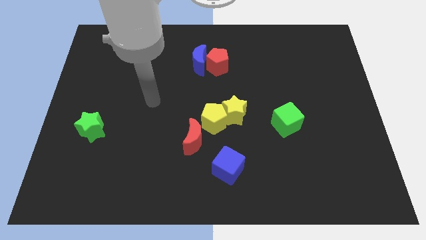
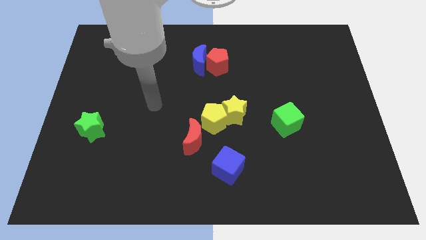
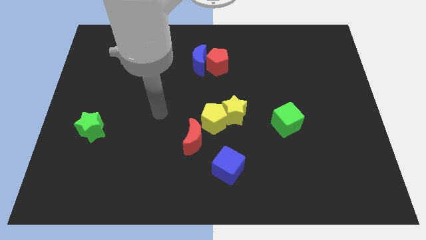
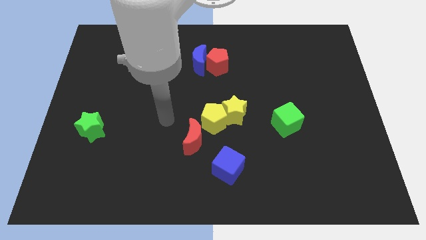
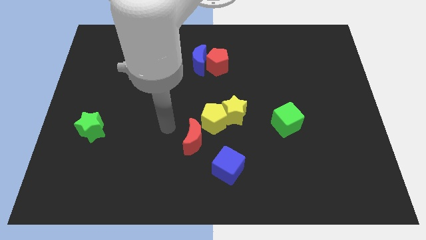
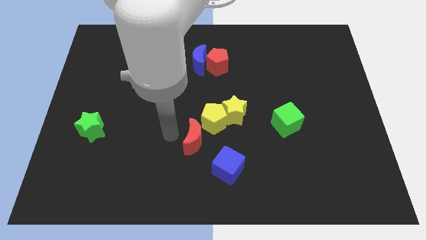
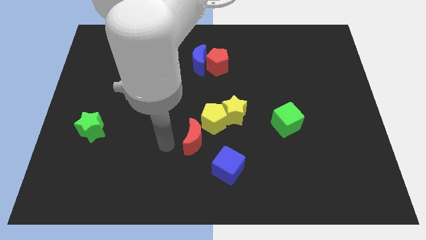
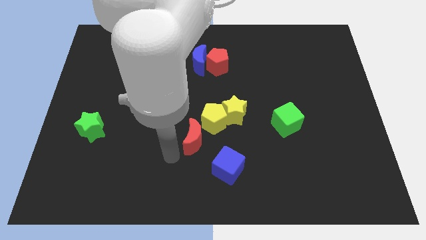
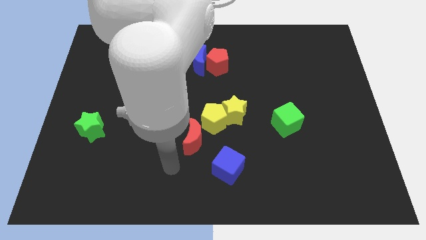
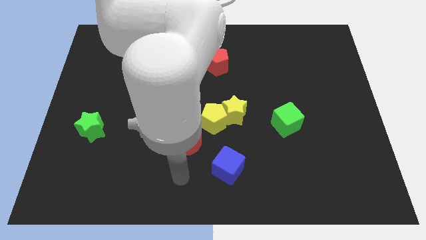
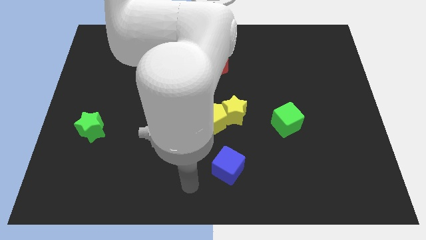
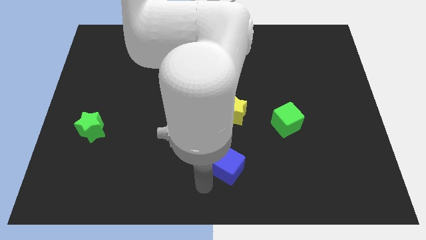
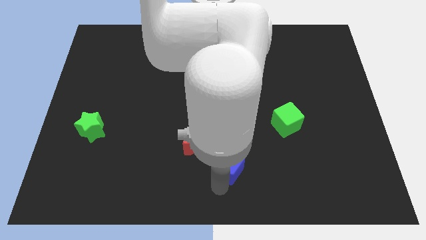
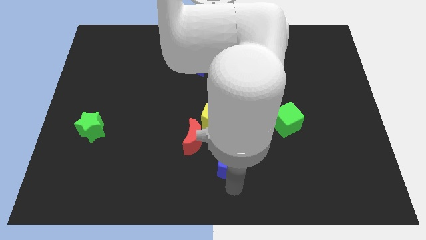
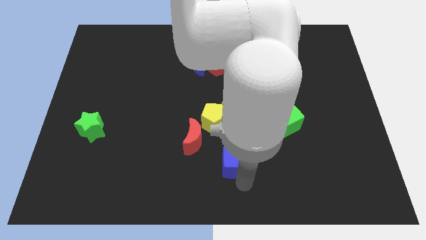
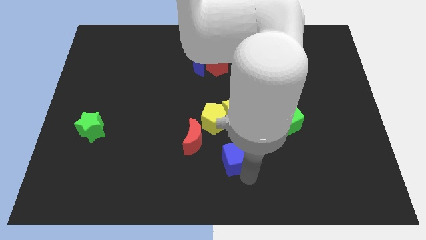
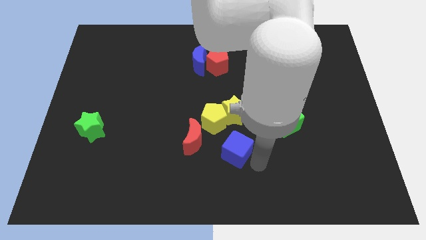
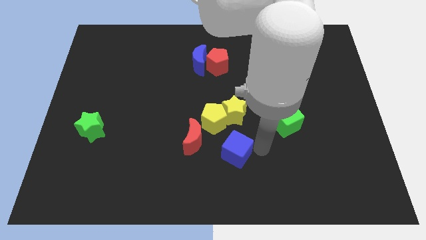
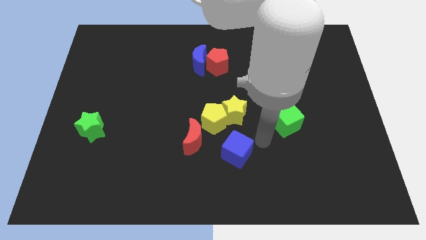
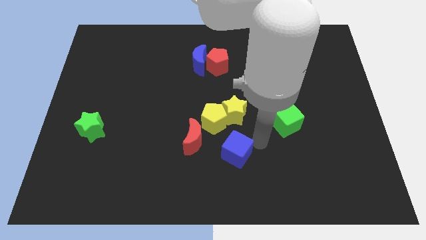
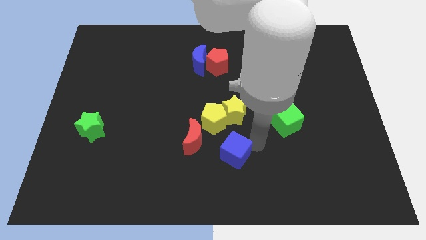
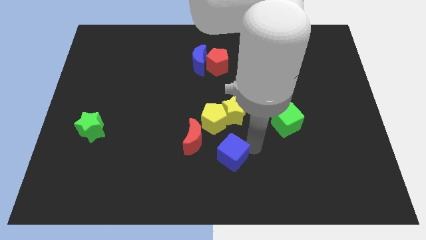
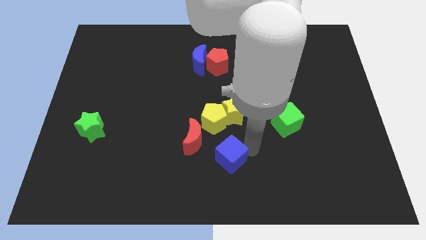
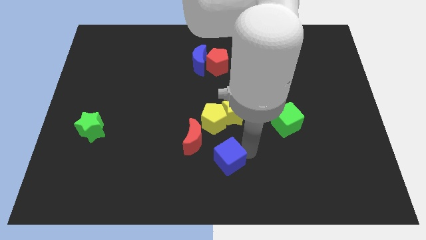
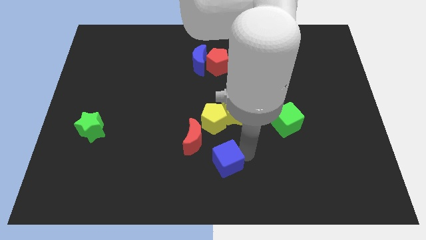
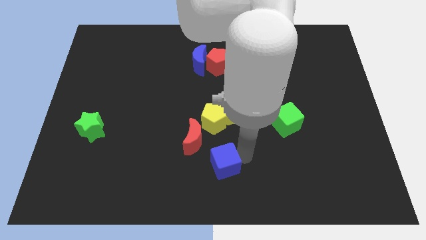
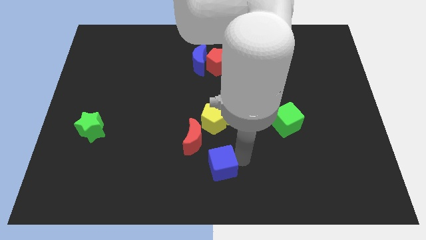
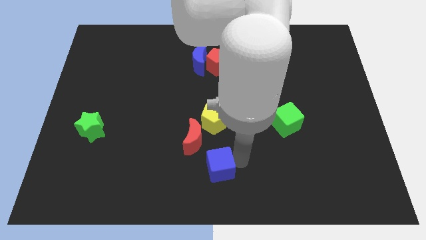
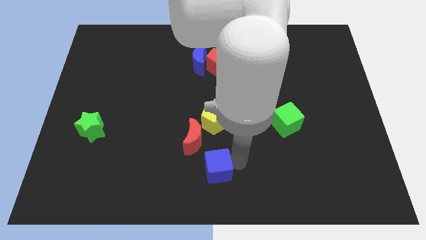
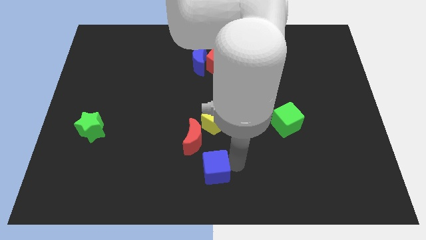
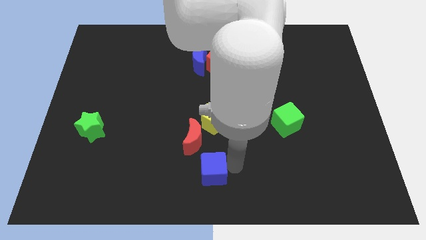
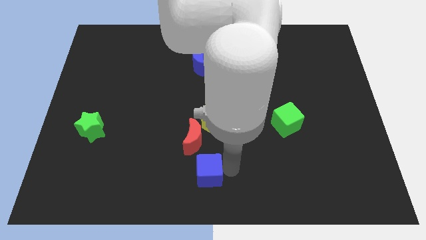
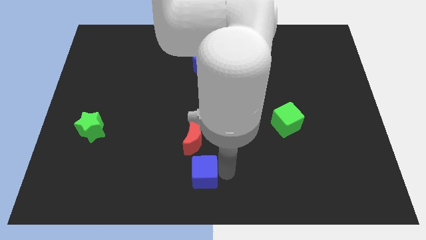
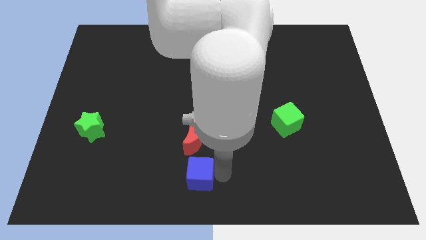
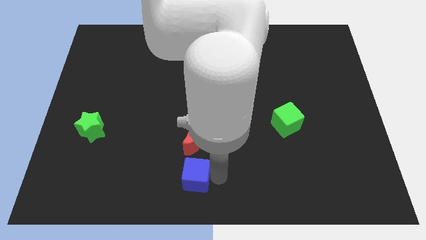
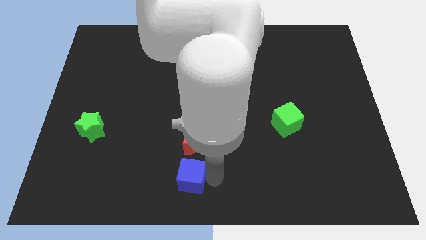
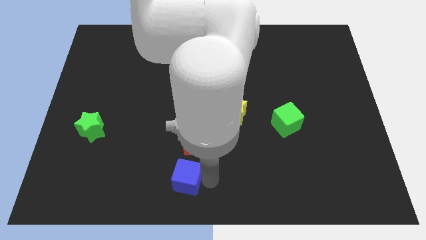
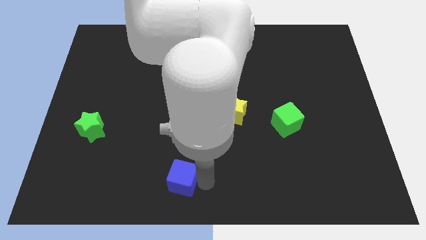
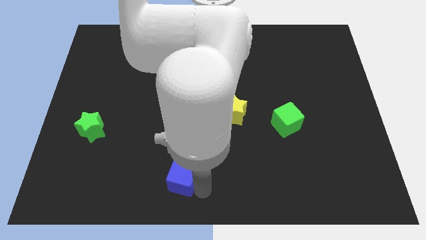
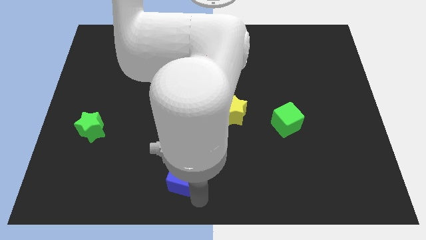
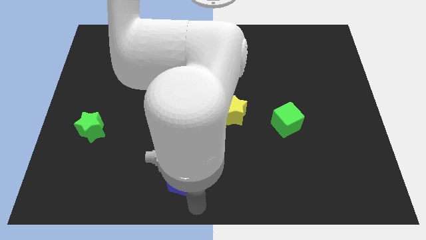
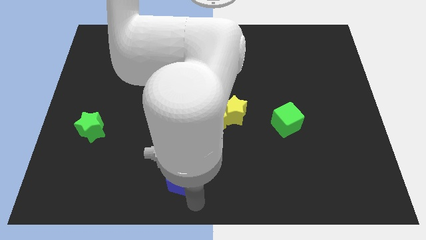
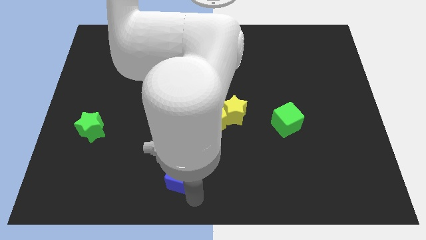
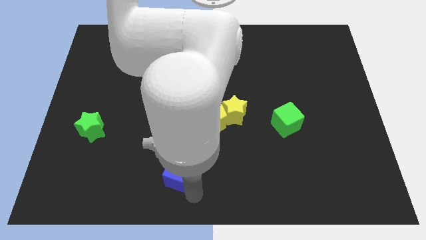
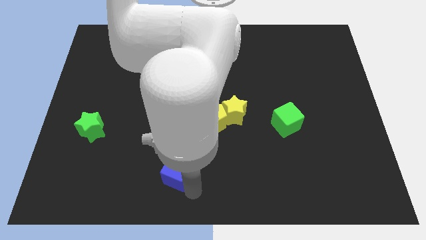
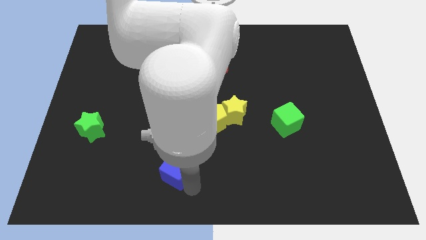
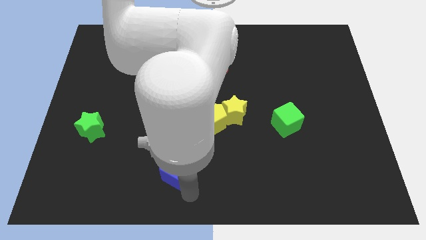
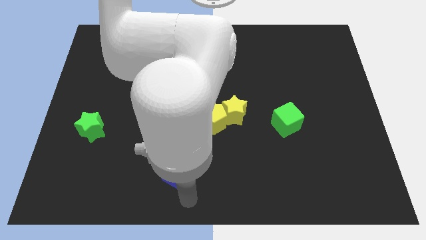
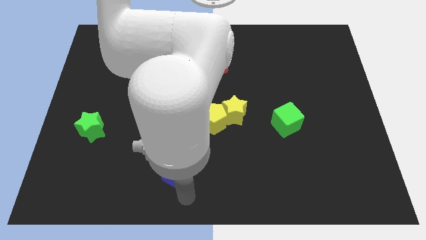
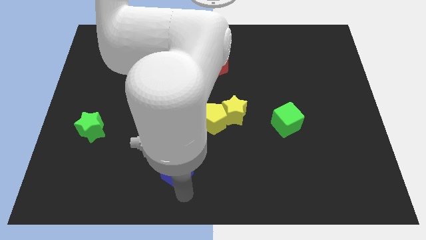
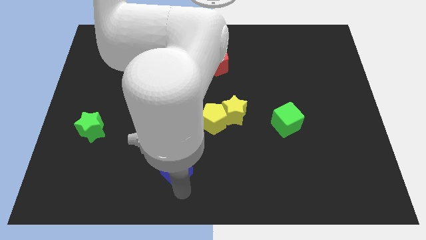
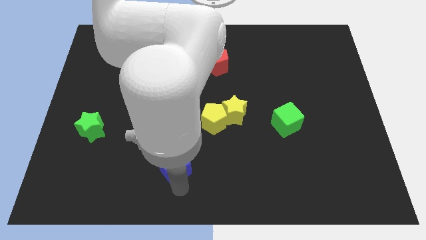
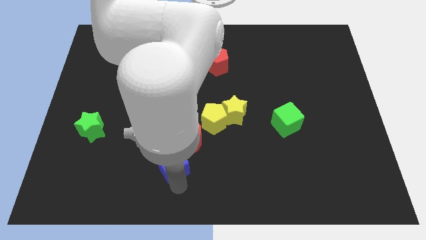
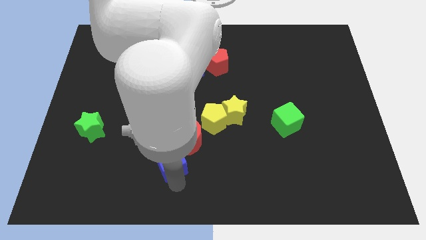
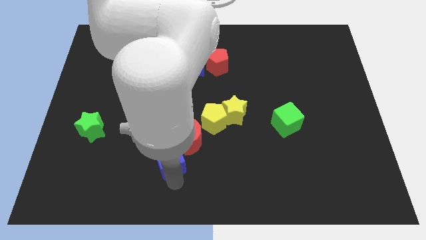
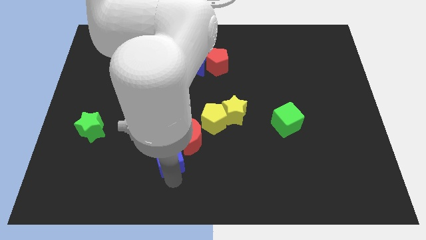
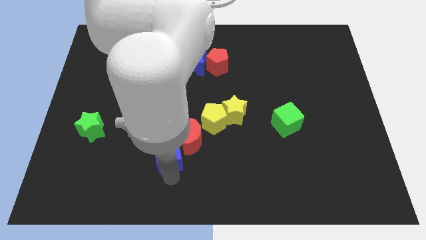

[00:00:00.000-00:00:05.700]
put the blue cube to the left side of the red moon
